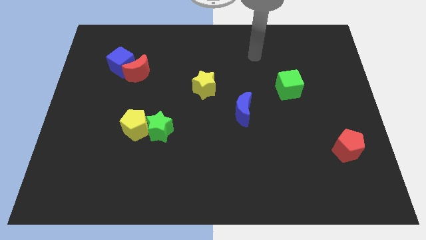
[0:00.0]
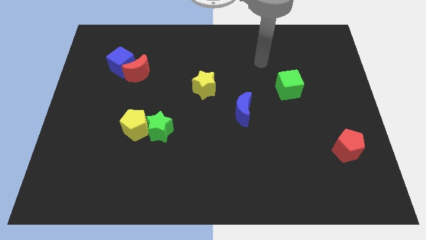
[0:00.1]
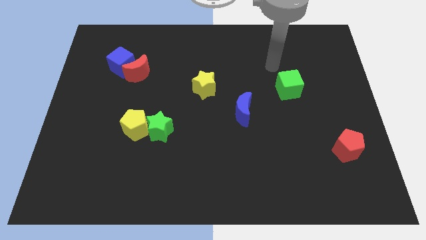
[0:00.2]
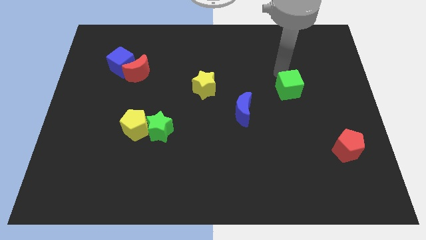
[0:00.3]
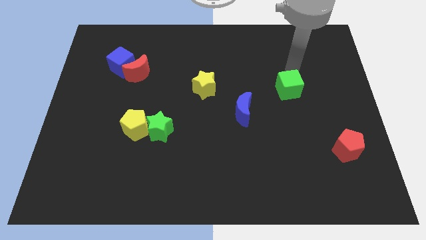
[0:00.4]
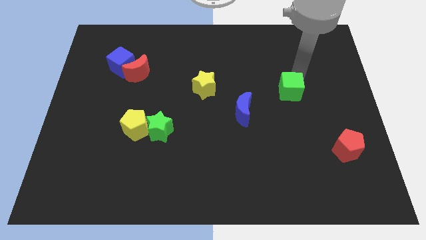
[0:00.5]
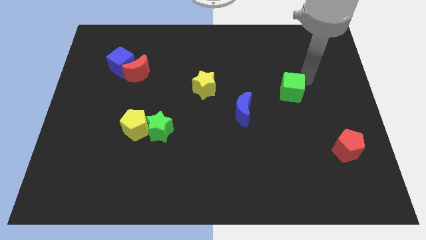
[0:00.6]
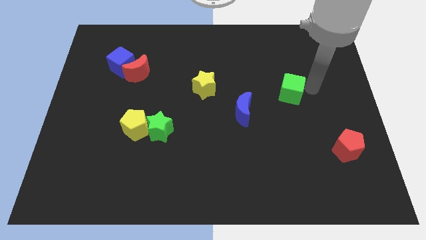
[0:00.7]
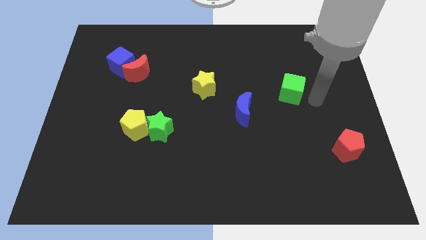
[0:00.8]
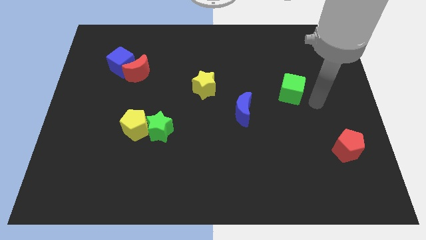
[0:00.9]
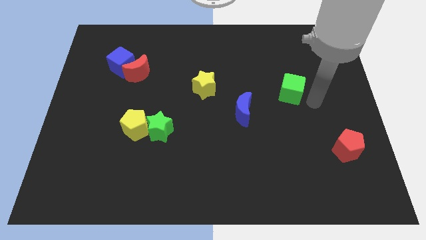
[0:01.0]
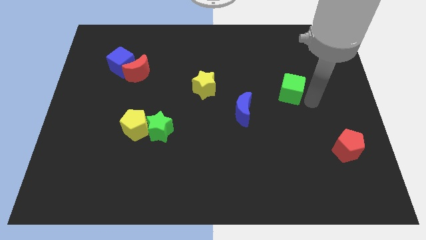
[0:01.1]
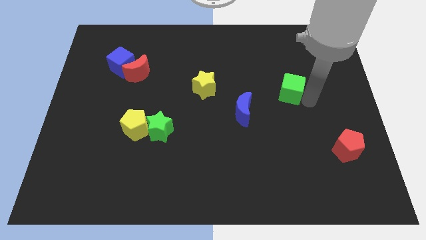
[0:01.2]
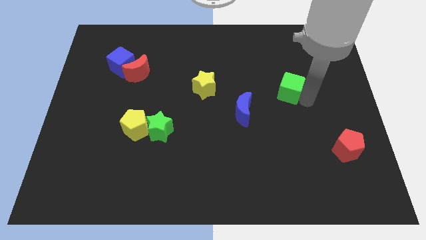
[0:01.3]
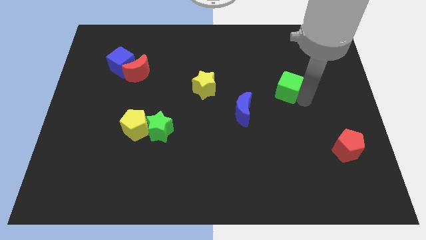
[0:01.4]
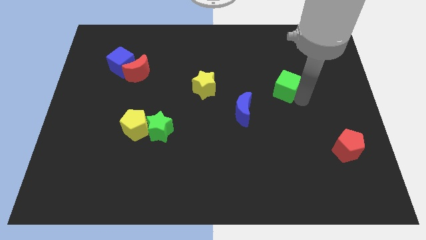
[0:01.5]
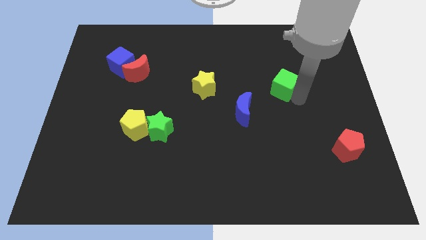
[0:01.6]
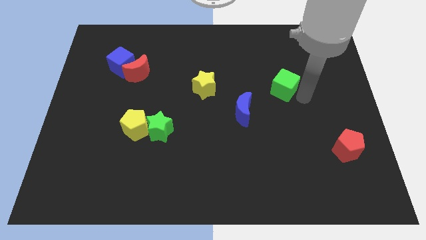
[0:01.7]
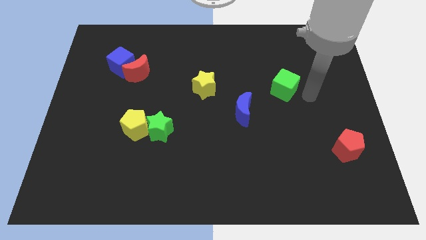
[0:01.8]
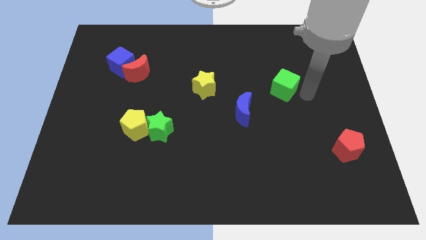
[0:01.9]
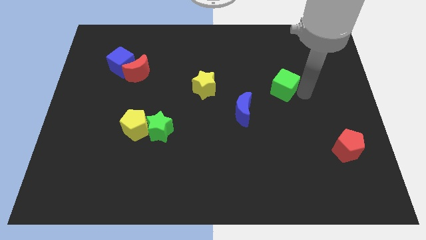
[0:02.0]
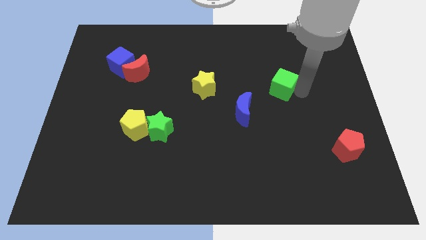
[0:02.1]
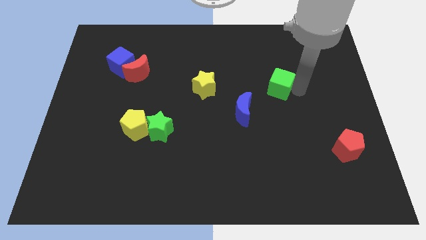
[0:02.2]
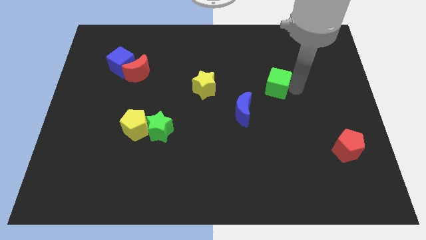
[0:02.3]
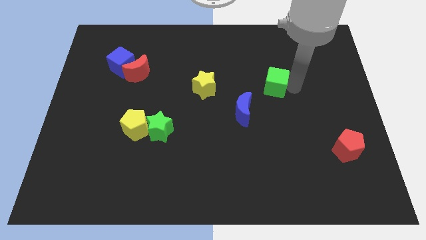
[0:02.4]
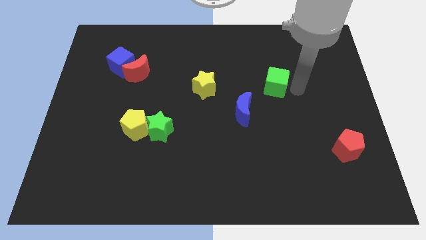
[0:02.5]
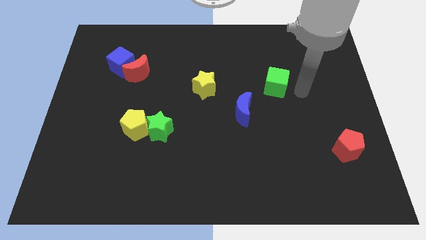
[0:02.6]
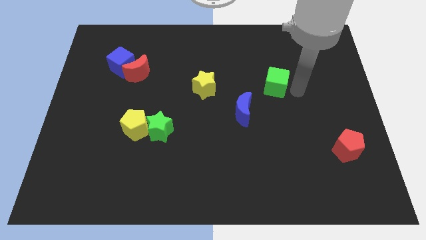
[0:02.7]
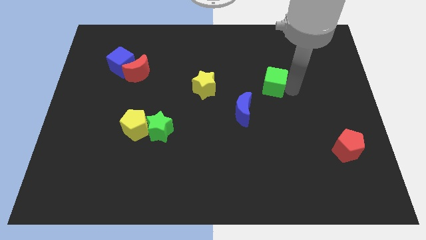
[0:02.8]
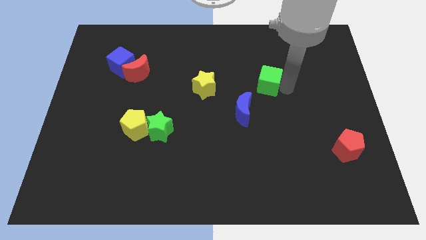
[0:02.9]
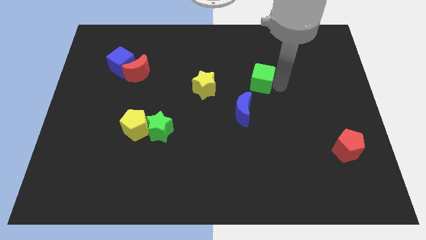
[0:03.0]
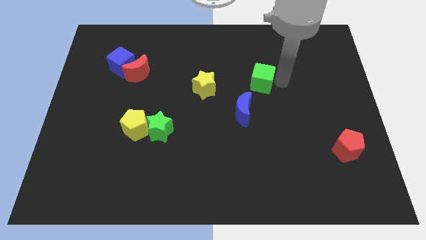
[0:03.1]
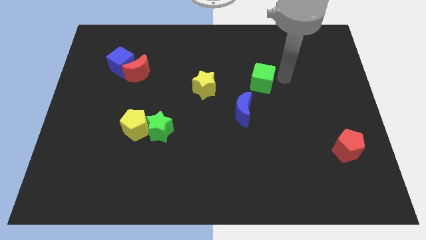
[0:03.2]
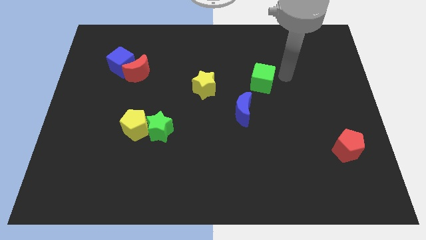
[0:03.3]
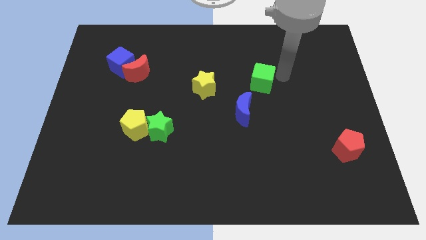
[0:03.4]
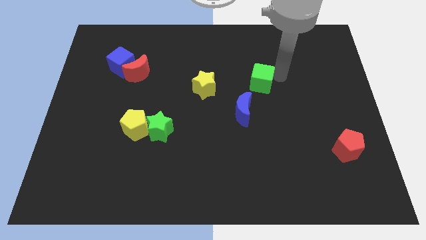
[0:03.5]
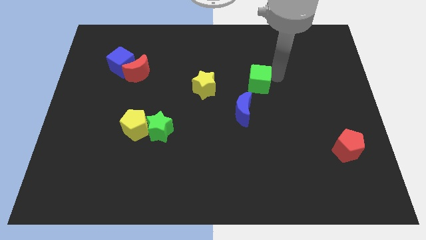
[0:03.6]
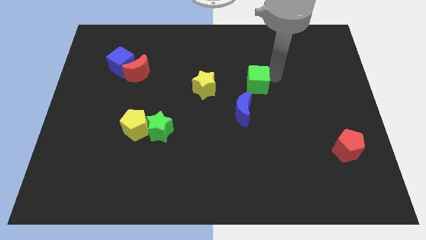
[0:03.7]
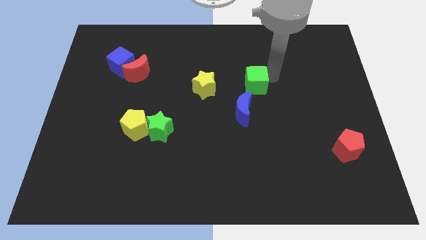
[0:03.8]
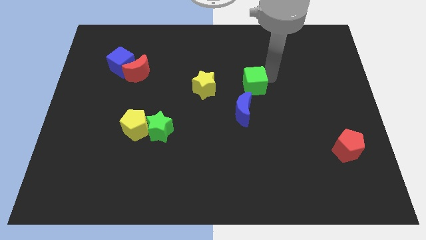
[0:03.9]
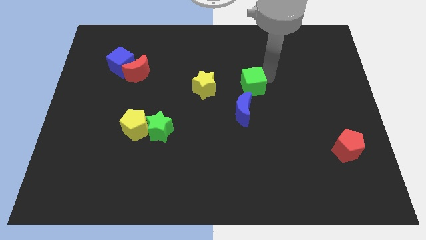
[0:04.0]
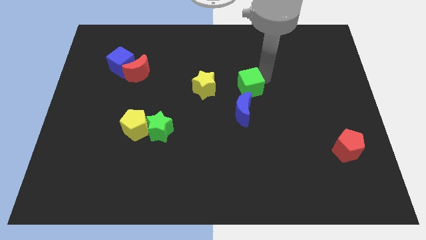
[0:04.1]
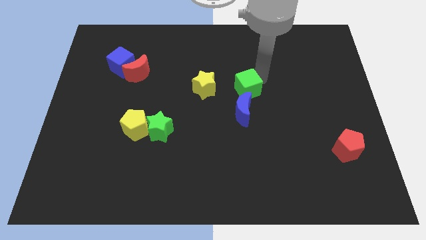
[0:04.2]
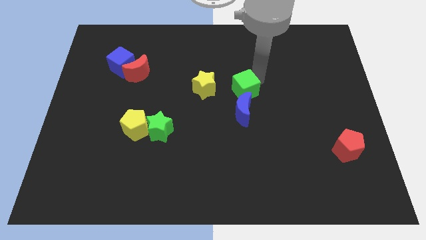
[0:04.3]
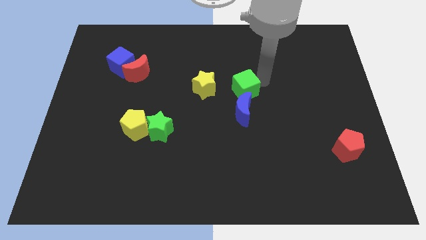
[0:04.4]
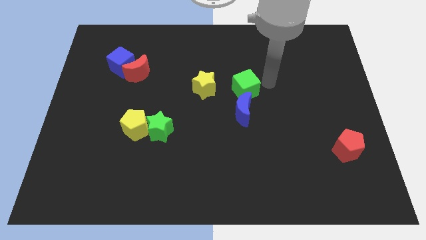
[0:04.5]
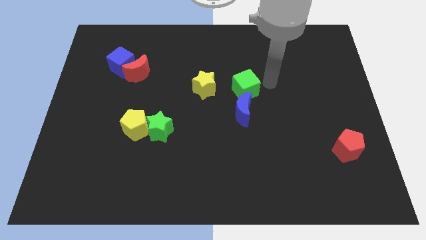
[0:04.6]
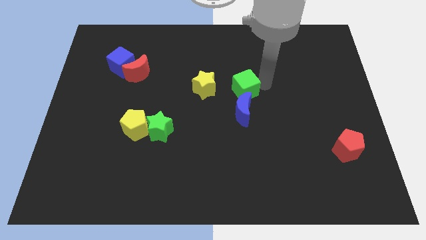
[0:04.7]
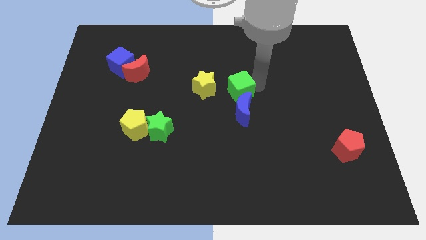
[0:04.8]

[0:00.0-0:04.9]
slide the green cube to the top left of the blue moon

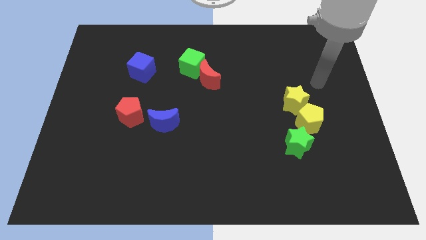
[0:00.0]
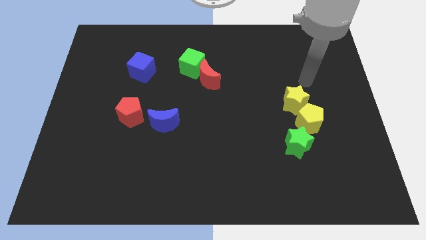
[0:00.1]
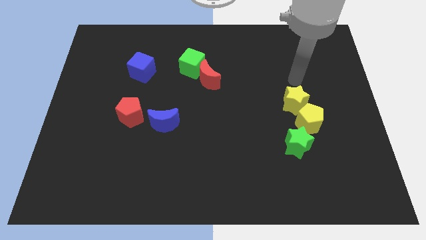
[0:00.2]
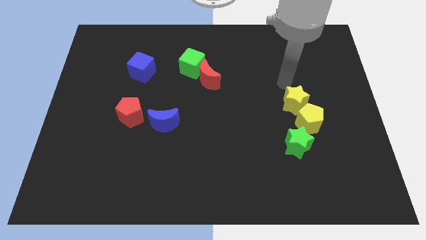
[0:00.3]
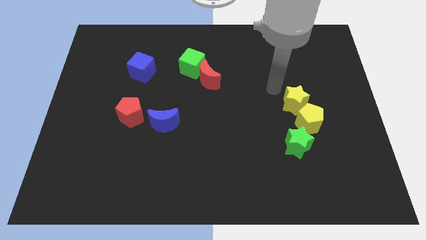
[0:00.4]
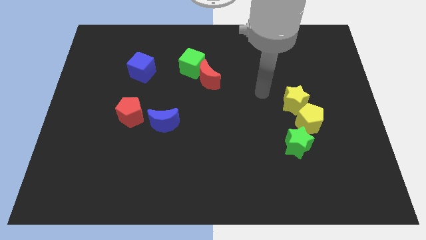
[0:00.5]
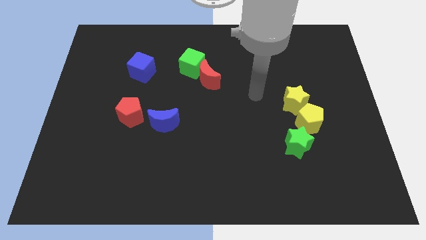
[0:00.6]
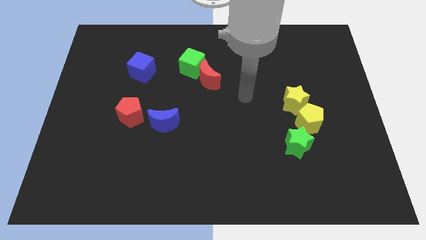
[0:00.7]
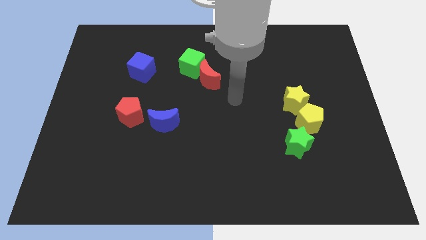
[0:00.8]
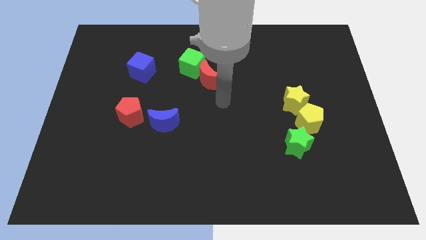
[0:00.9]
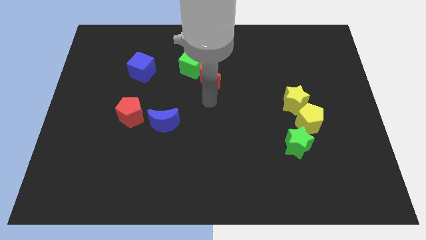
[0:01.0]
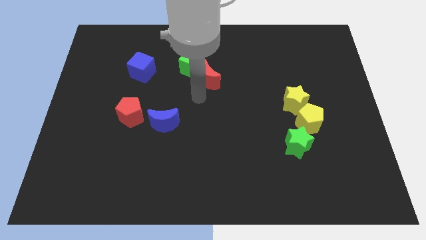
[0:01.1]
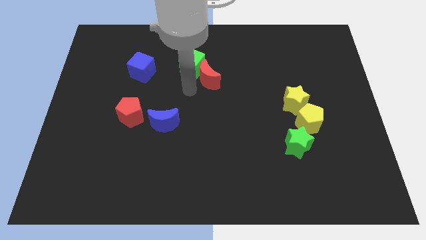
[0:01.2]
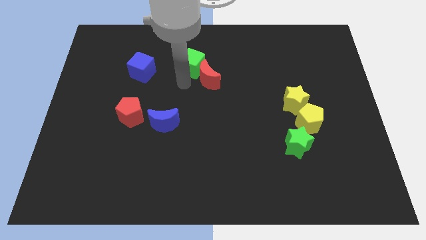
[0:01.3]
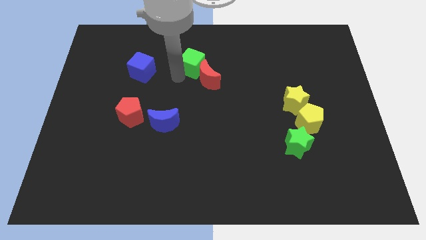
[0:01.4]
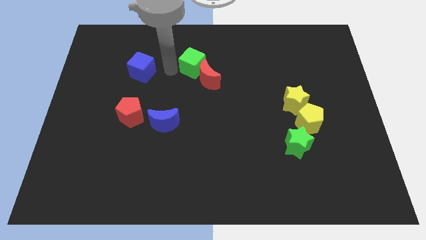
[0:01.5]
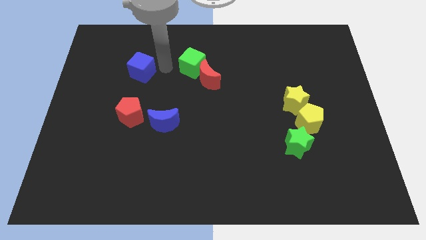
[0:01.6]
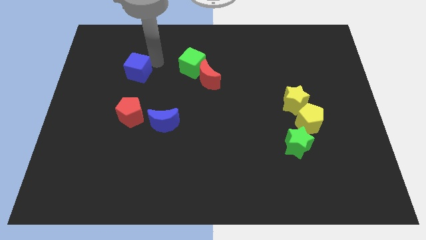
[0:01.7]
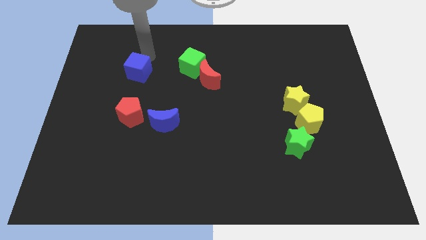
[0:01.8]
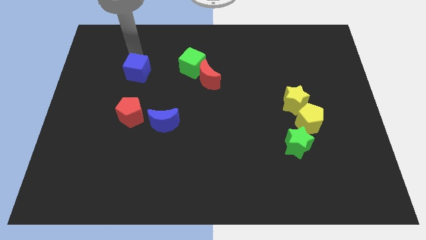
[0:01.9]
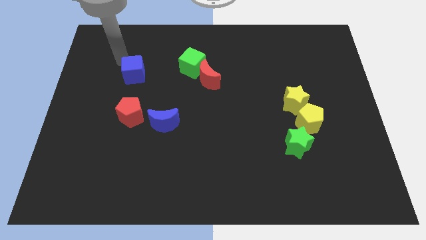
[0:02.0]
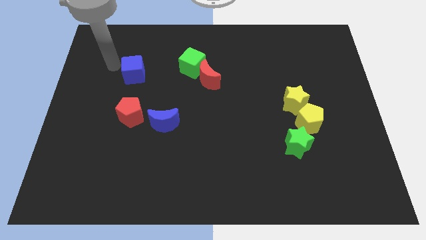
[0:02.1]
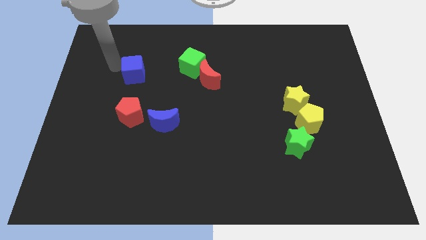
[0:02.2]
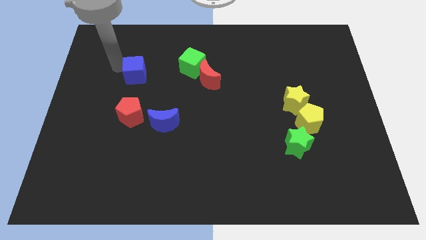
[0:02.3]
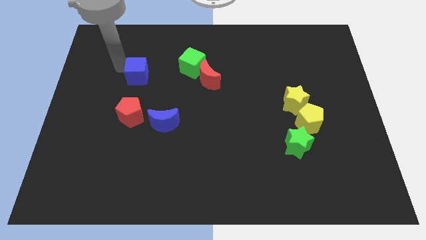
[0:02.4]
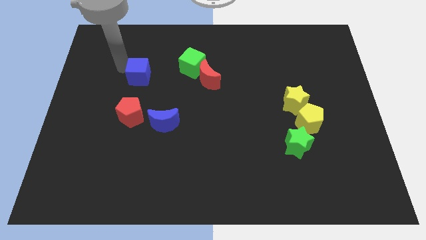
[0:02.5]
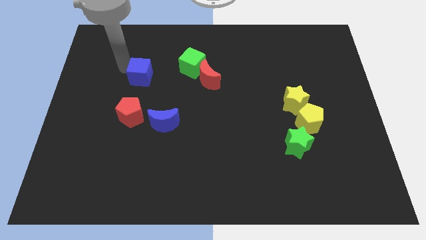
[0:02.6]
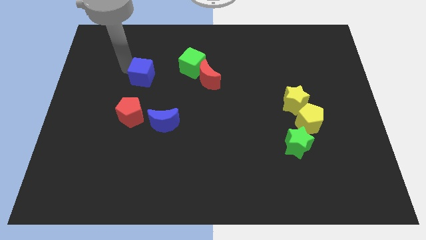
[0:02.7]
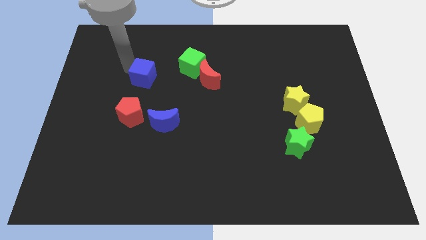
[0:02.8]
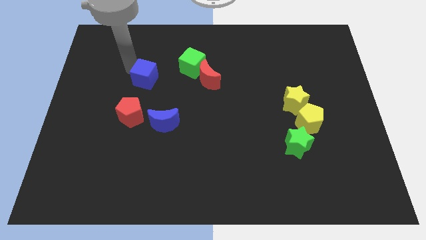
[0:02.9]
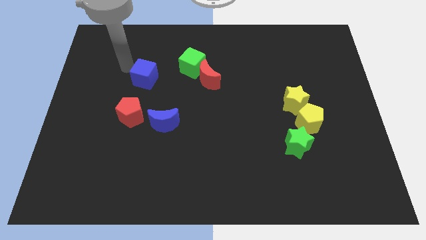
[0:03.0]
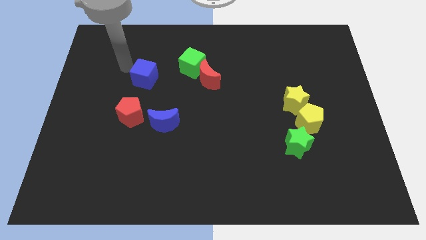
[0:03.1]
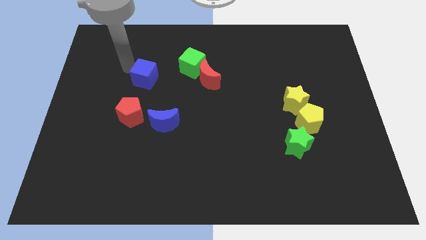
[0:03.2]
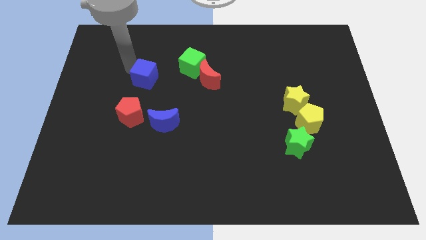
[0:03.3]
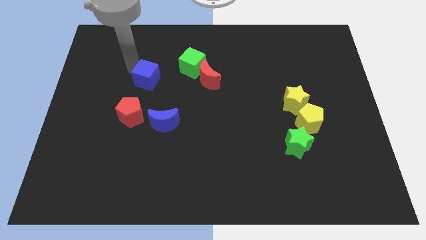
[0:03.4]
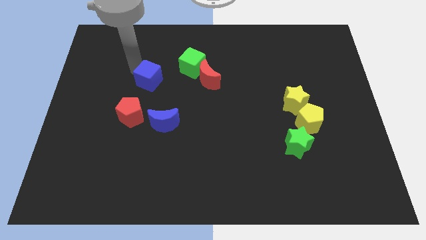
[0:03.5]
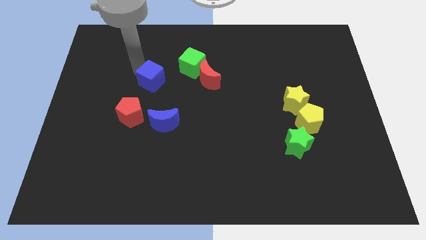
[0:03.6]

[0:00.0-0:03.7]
move the blue cube to the top of the blue moon
